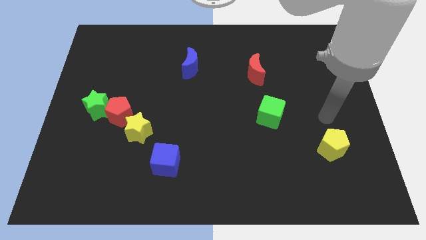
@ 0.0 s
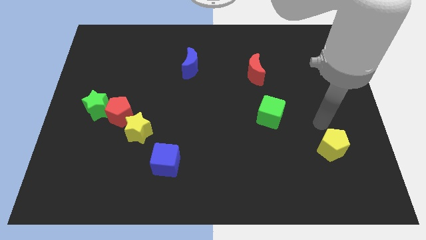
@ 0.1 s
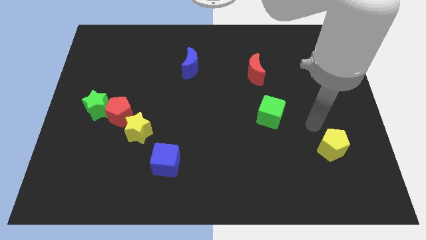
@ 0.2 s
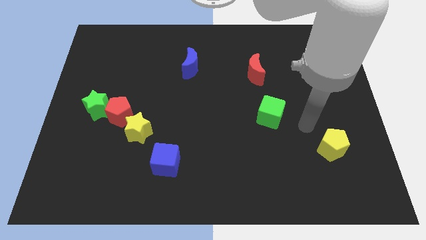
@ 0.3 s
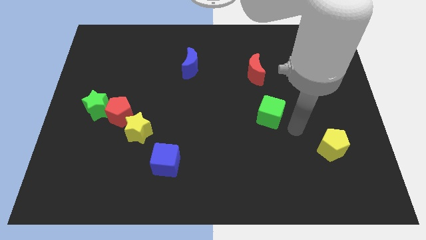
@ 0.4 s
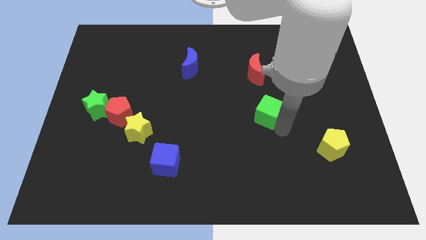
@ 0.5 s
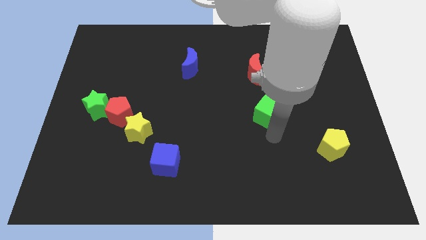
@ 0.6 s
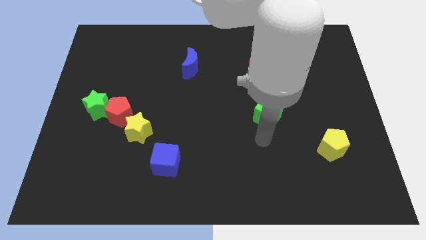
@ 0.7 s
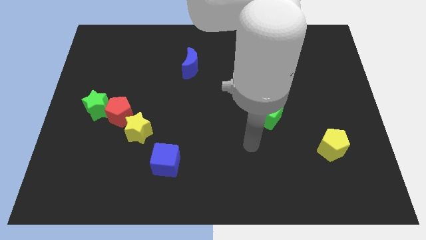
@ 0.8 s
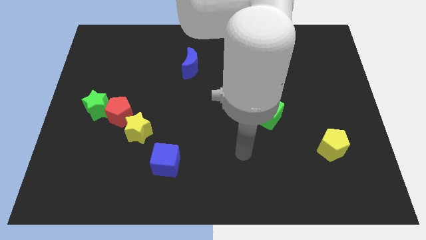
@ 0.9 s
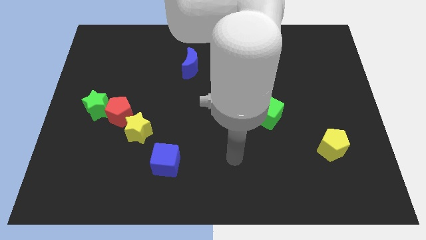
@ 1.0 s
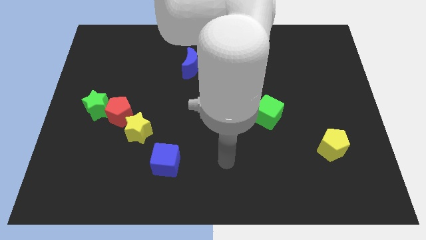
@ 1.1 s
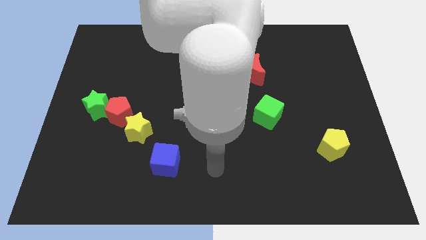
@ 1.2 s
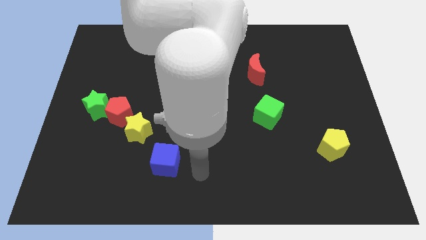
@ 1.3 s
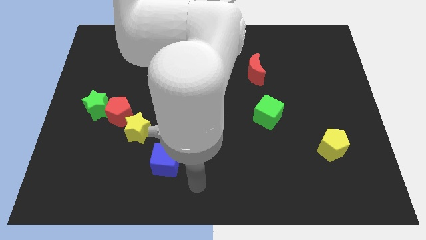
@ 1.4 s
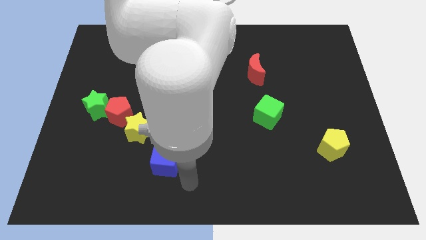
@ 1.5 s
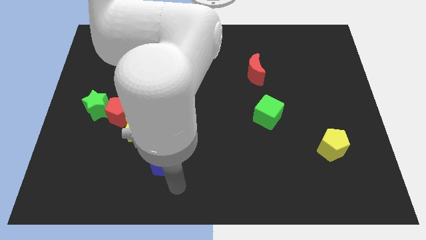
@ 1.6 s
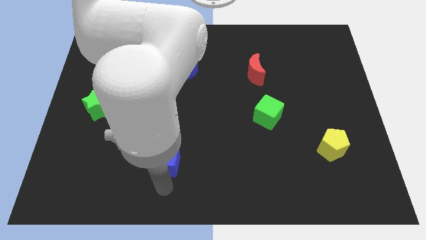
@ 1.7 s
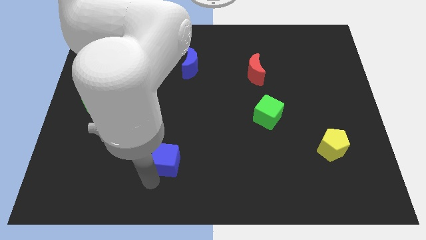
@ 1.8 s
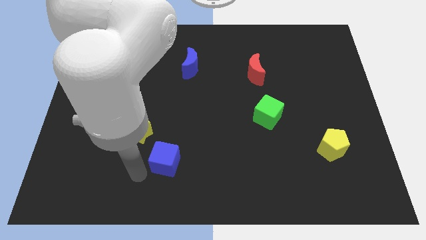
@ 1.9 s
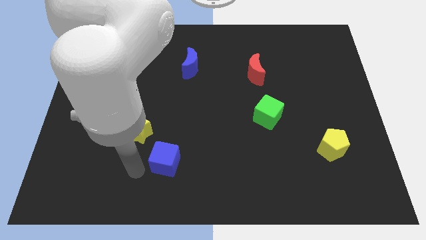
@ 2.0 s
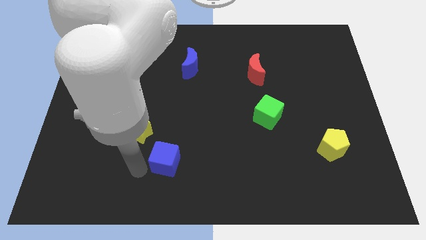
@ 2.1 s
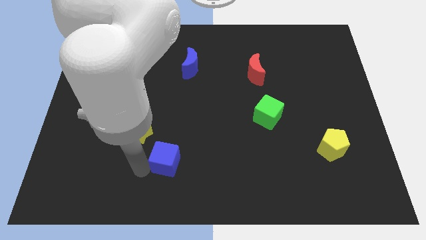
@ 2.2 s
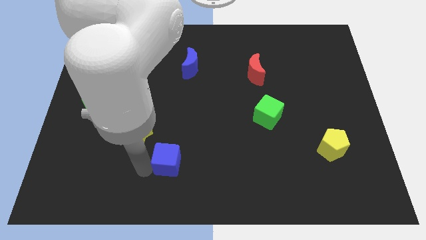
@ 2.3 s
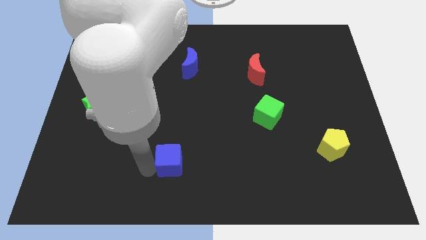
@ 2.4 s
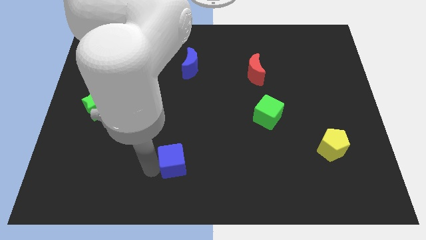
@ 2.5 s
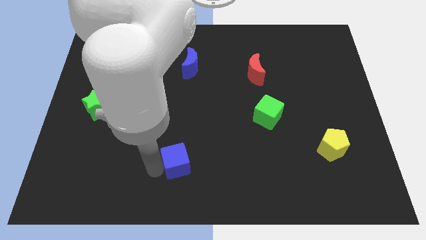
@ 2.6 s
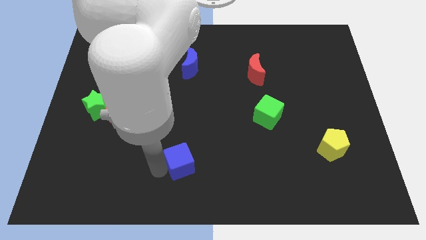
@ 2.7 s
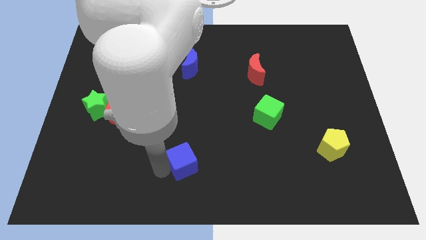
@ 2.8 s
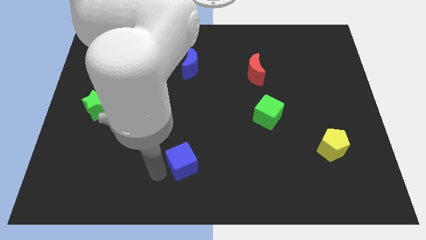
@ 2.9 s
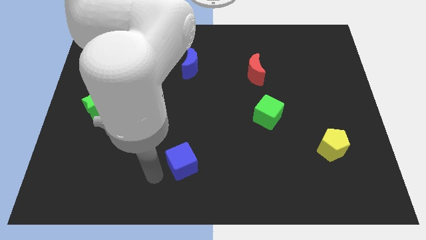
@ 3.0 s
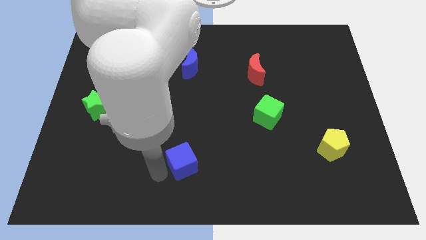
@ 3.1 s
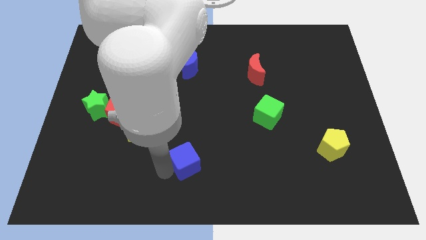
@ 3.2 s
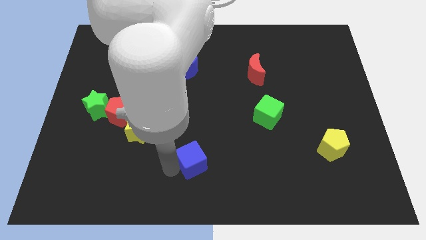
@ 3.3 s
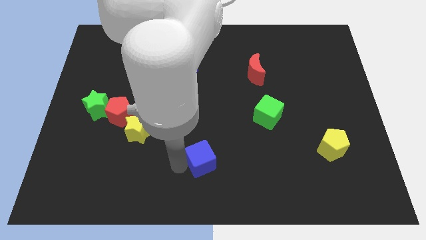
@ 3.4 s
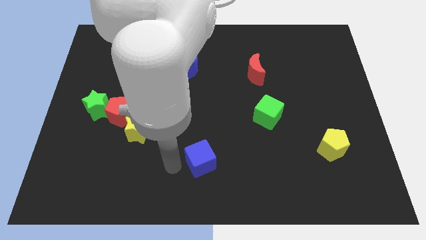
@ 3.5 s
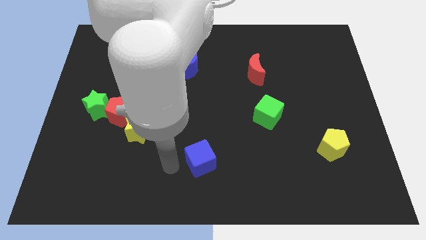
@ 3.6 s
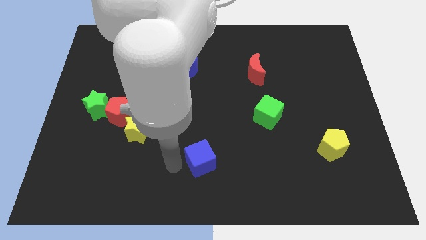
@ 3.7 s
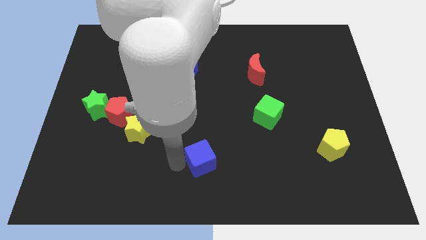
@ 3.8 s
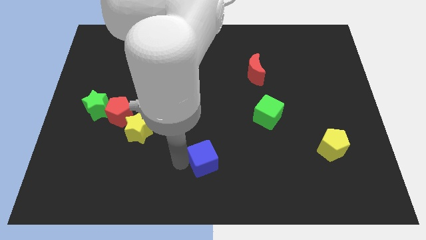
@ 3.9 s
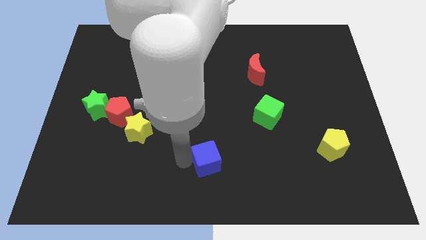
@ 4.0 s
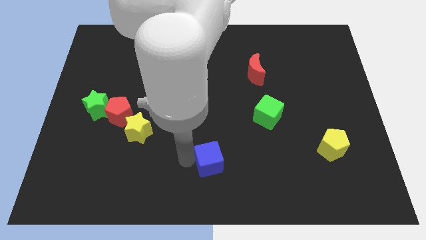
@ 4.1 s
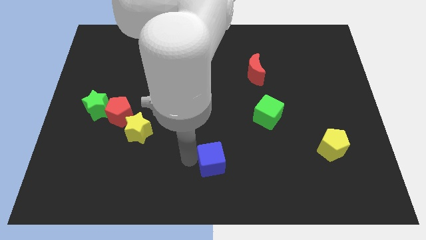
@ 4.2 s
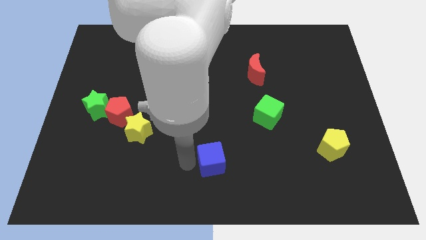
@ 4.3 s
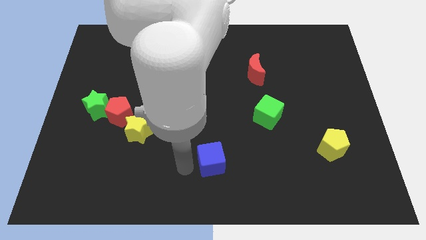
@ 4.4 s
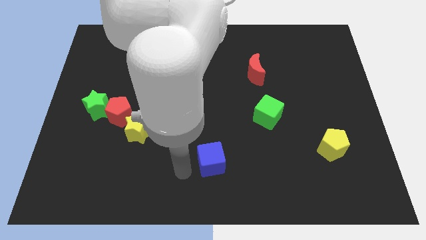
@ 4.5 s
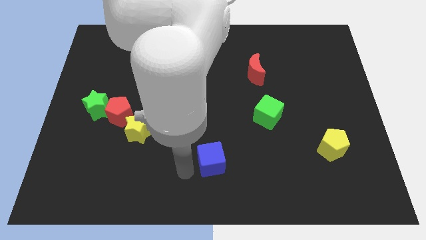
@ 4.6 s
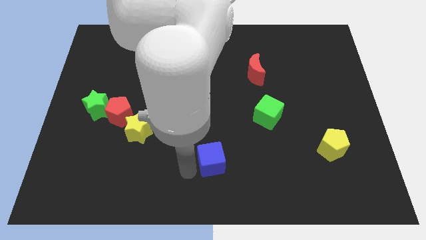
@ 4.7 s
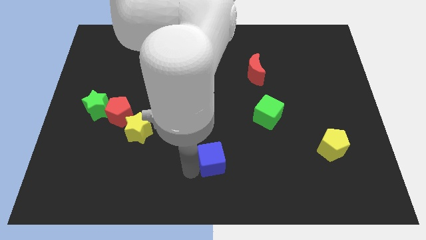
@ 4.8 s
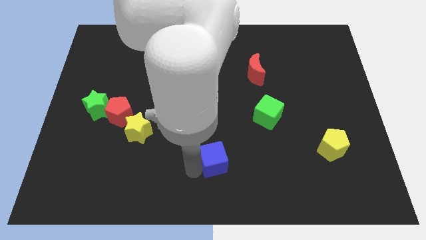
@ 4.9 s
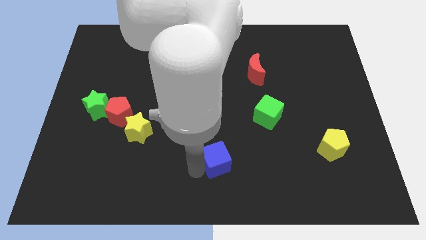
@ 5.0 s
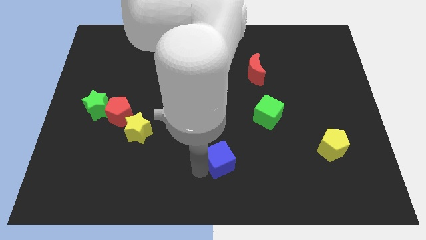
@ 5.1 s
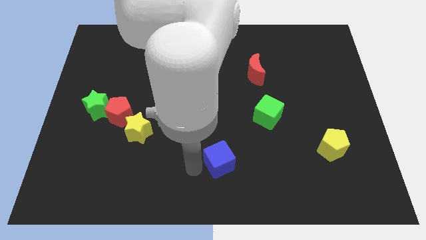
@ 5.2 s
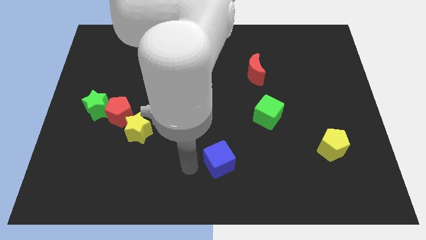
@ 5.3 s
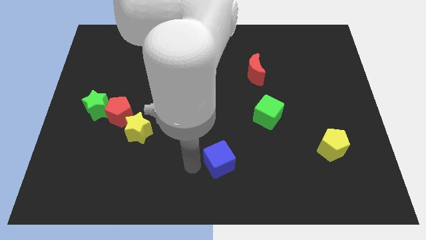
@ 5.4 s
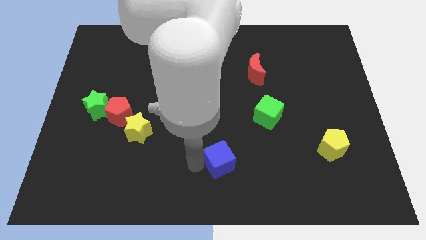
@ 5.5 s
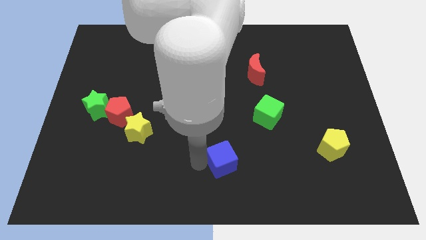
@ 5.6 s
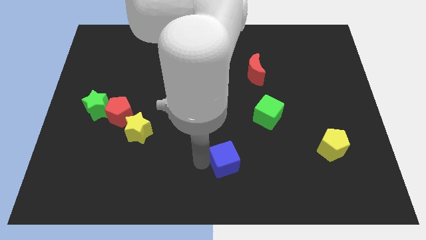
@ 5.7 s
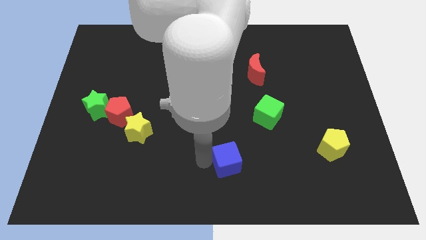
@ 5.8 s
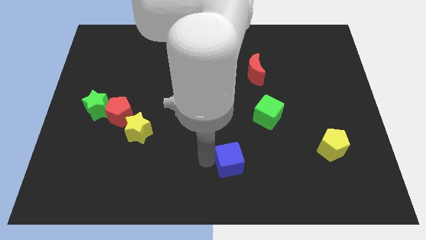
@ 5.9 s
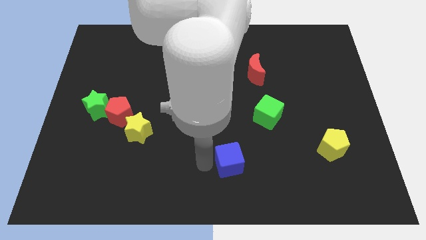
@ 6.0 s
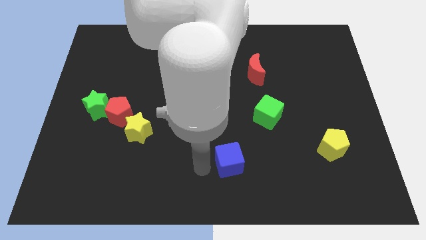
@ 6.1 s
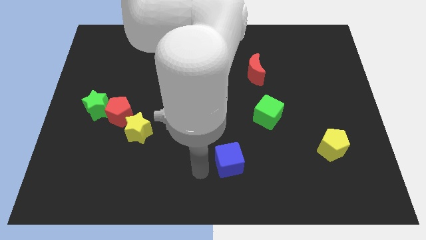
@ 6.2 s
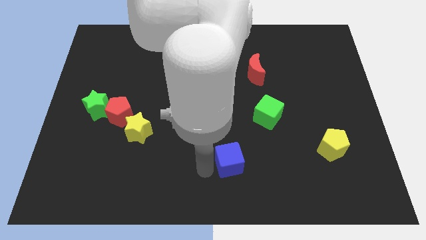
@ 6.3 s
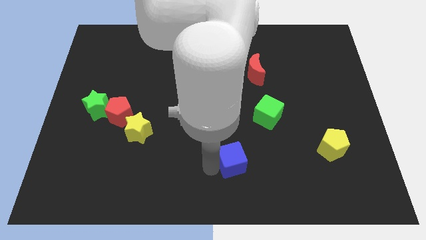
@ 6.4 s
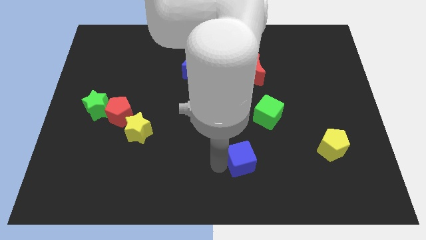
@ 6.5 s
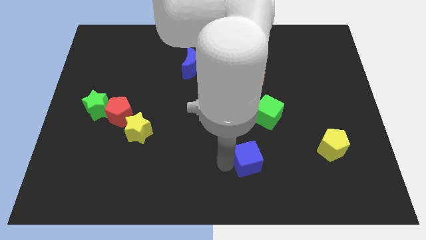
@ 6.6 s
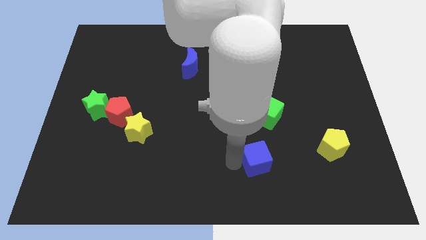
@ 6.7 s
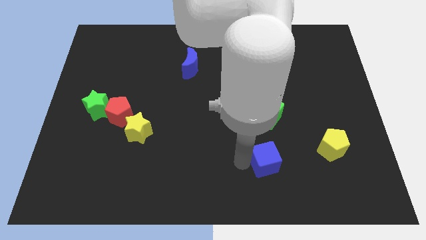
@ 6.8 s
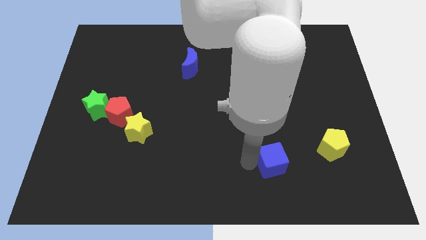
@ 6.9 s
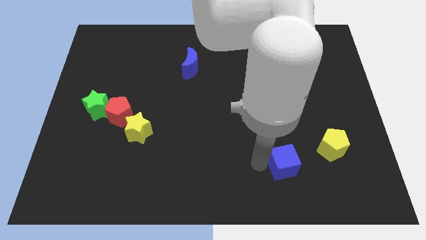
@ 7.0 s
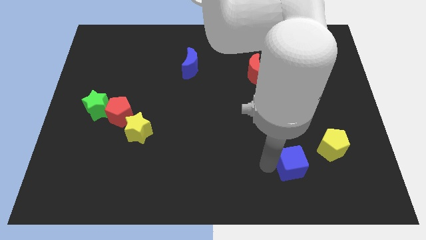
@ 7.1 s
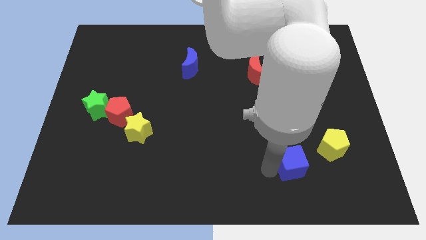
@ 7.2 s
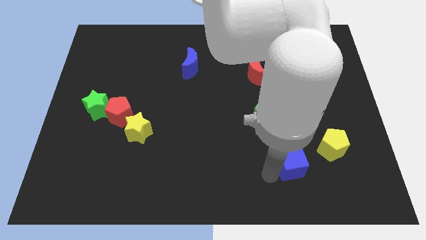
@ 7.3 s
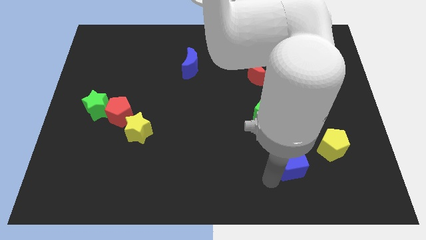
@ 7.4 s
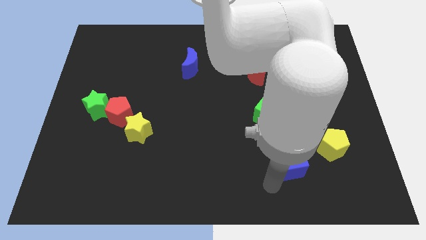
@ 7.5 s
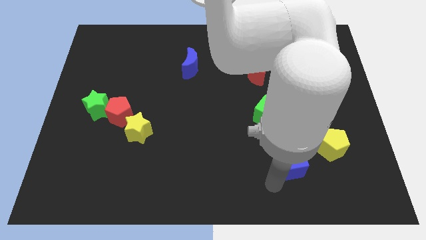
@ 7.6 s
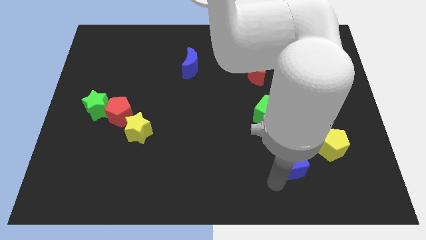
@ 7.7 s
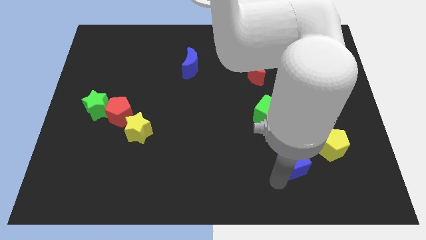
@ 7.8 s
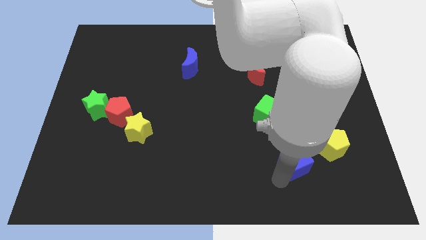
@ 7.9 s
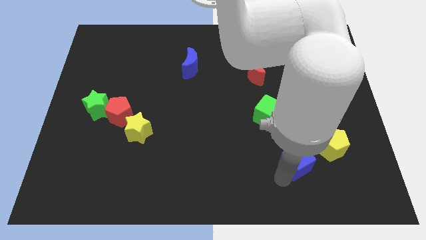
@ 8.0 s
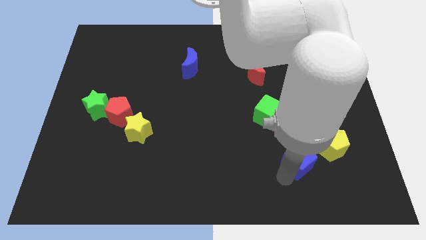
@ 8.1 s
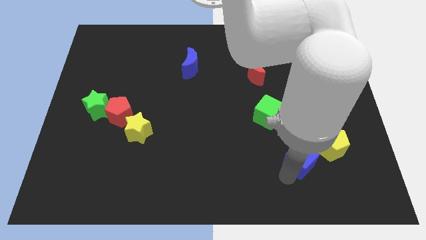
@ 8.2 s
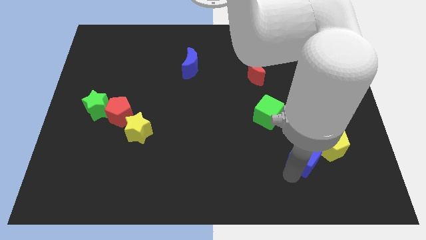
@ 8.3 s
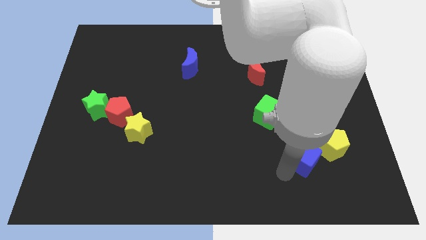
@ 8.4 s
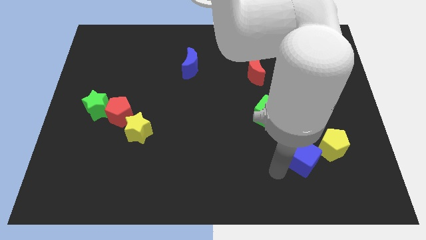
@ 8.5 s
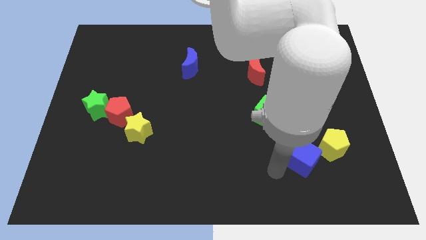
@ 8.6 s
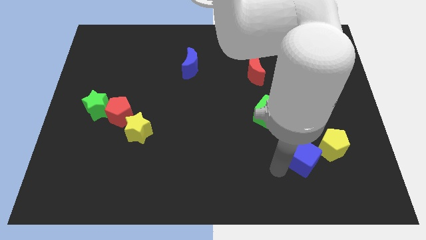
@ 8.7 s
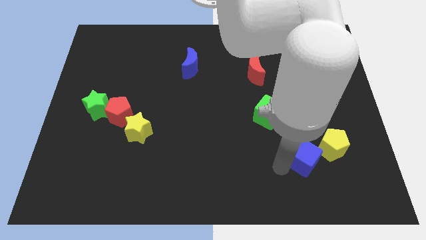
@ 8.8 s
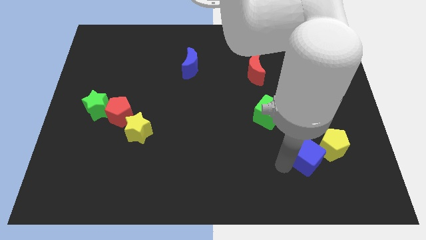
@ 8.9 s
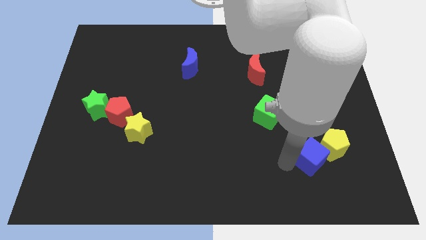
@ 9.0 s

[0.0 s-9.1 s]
put the blue cube towards the yellow pentagon
